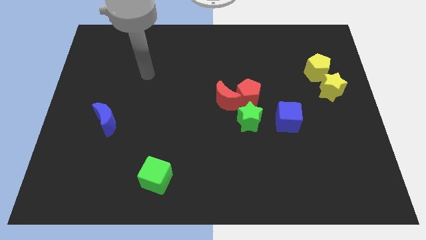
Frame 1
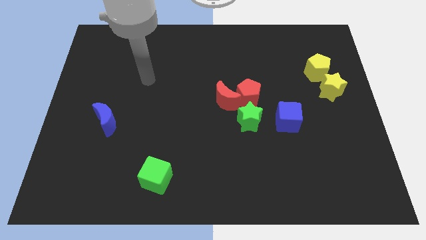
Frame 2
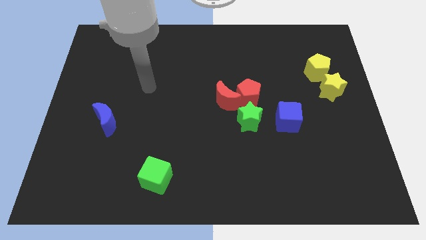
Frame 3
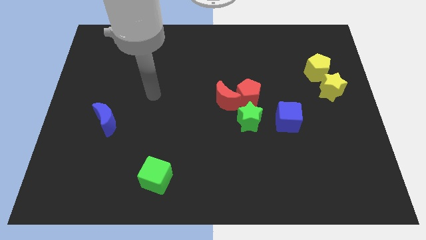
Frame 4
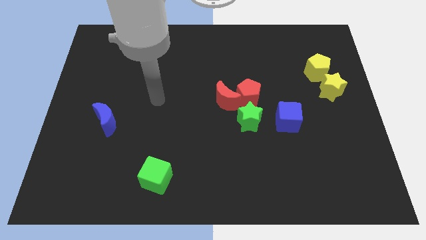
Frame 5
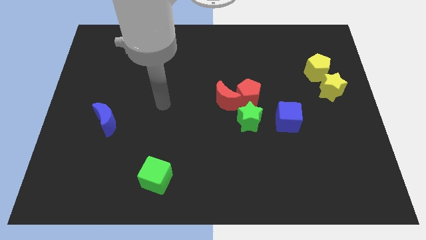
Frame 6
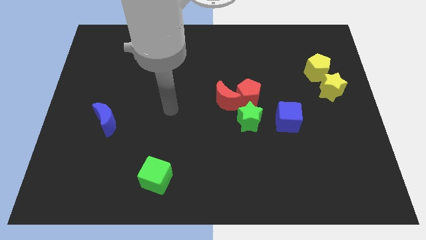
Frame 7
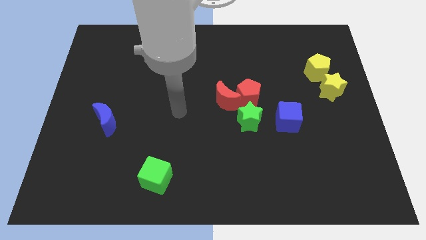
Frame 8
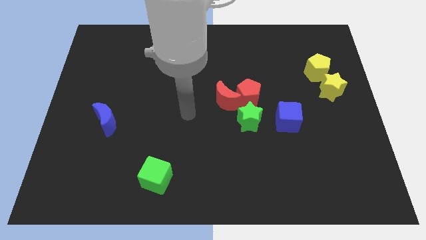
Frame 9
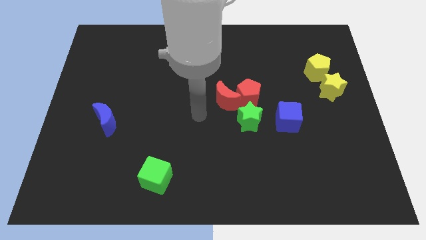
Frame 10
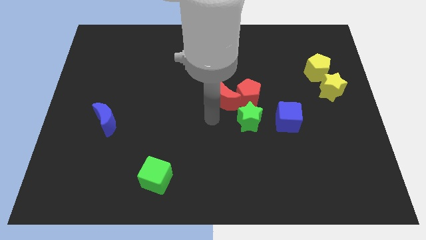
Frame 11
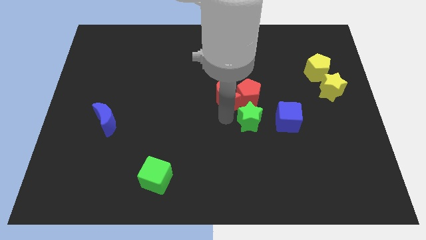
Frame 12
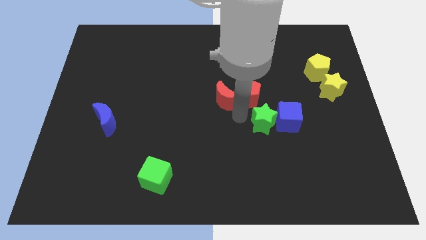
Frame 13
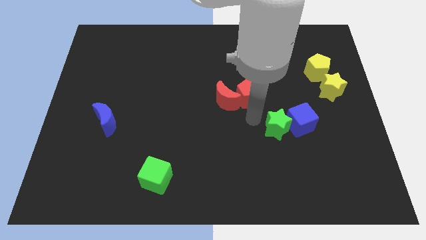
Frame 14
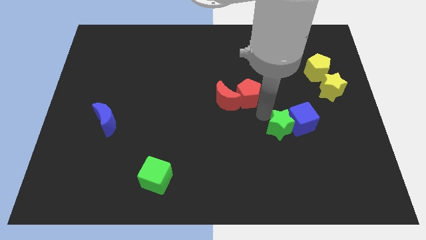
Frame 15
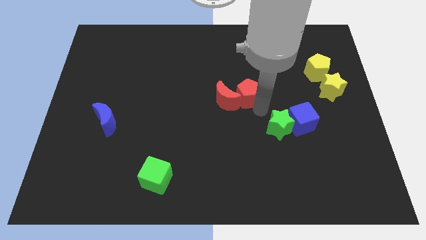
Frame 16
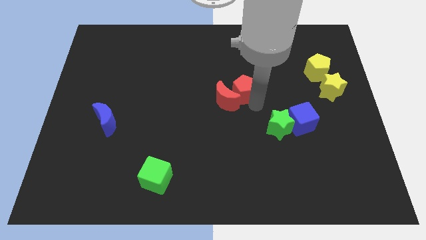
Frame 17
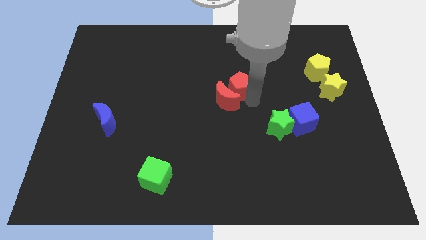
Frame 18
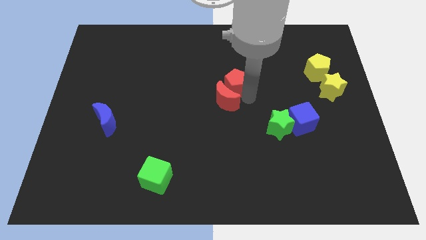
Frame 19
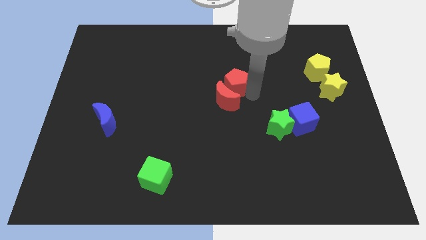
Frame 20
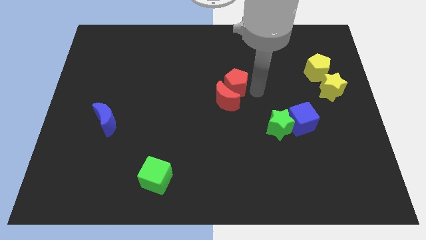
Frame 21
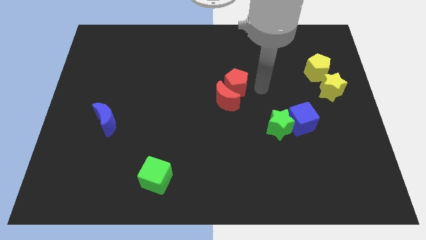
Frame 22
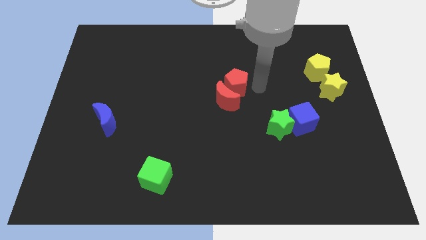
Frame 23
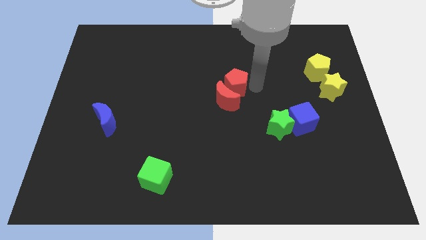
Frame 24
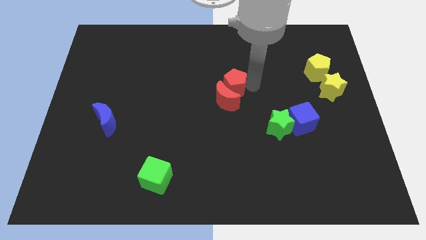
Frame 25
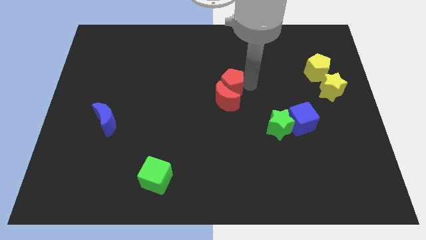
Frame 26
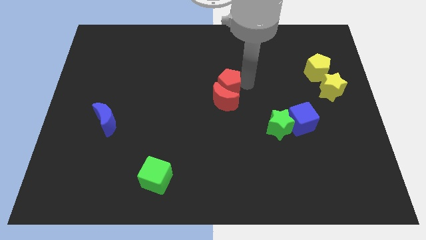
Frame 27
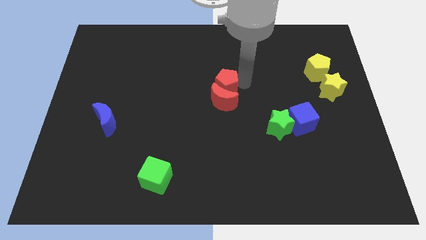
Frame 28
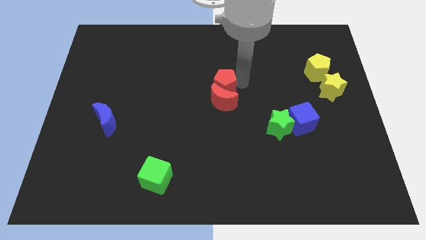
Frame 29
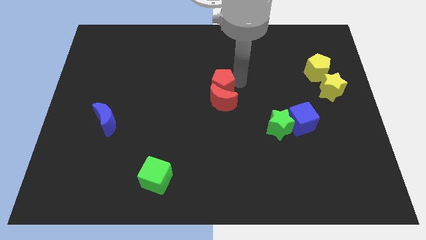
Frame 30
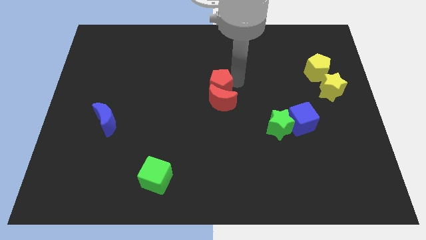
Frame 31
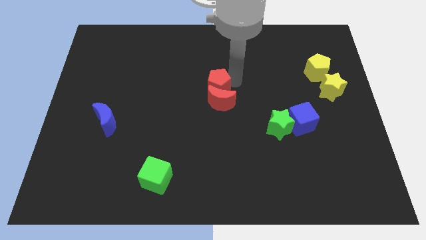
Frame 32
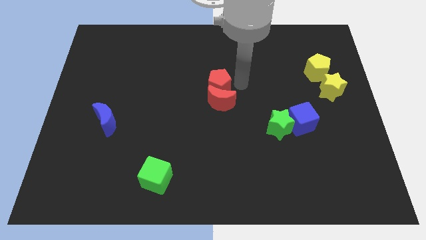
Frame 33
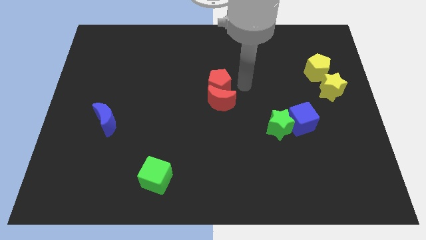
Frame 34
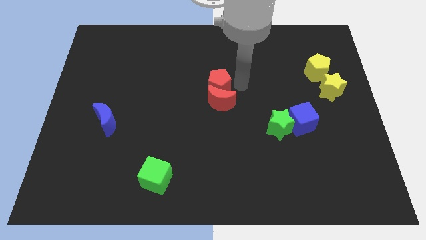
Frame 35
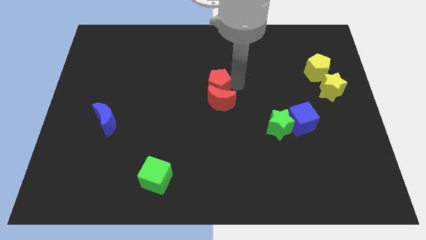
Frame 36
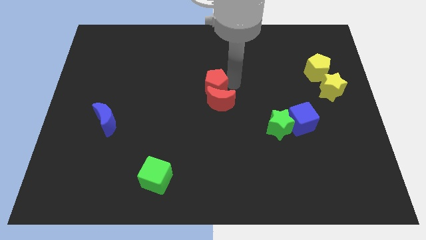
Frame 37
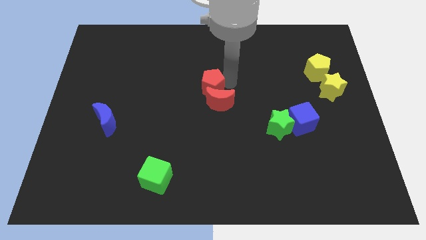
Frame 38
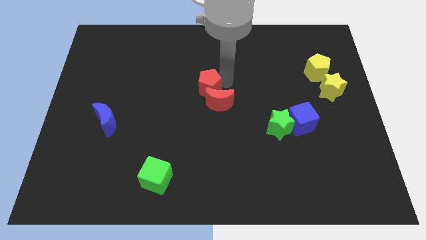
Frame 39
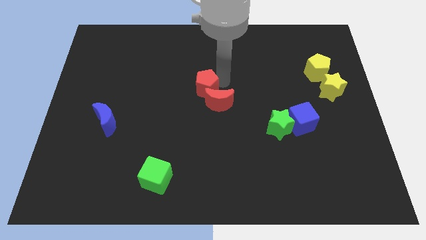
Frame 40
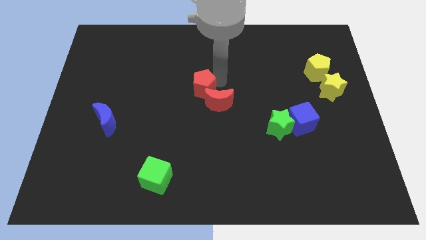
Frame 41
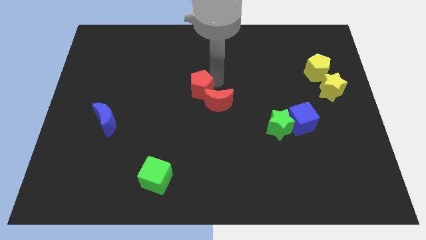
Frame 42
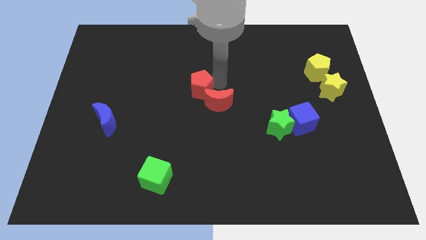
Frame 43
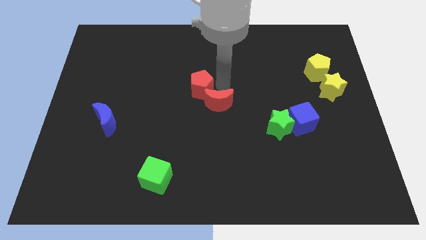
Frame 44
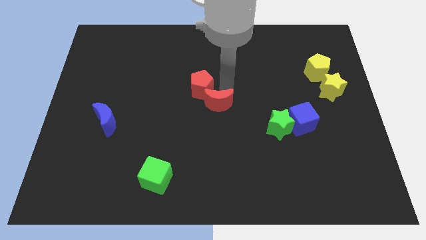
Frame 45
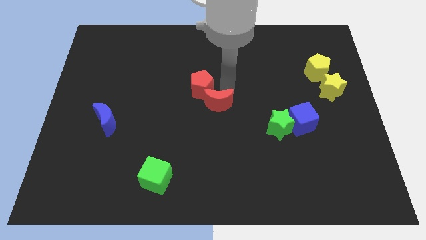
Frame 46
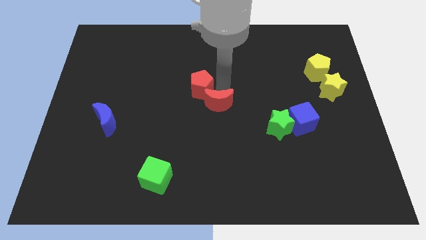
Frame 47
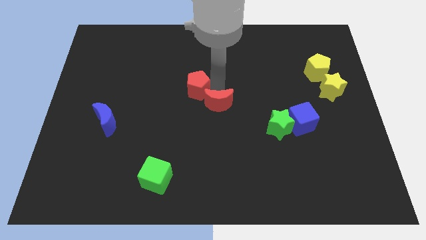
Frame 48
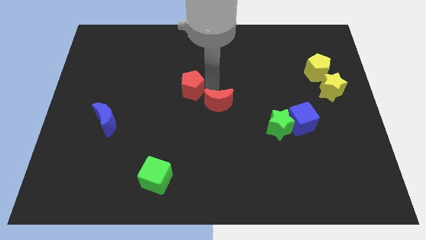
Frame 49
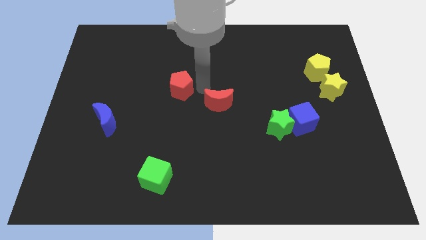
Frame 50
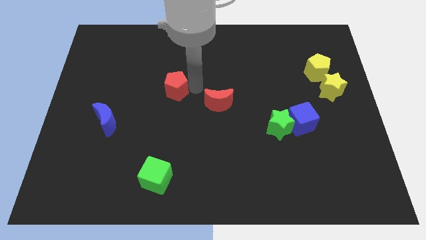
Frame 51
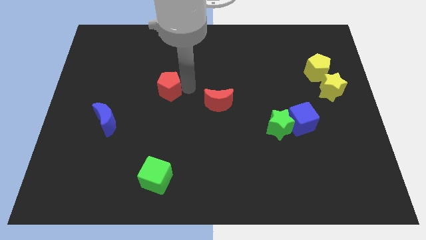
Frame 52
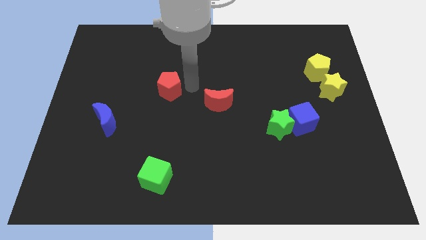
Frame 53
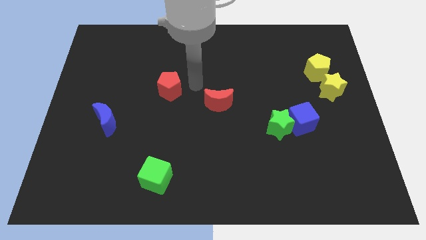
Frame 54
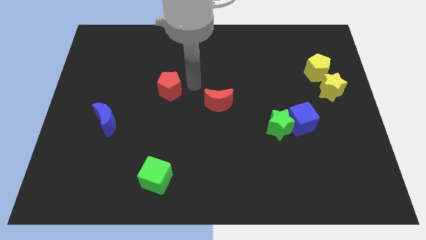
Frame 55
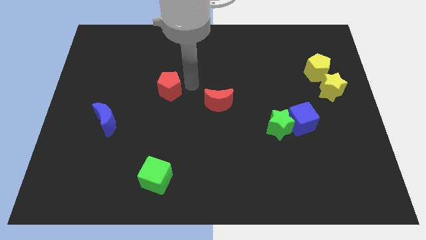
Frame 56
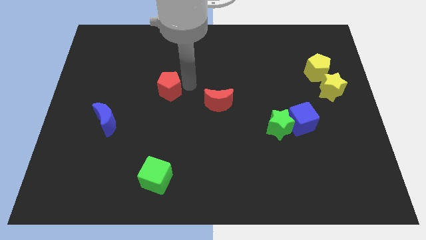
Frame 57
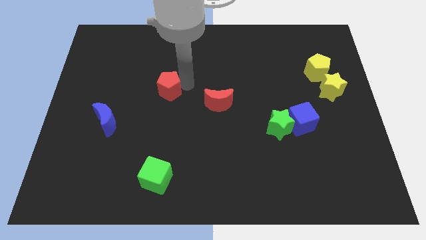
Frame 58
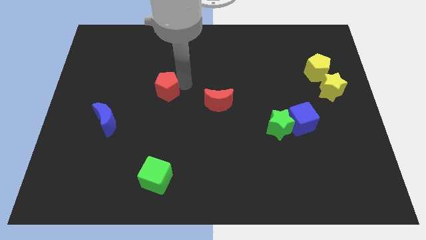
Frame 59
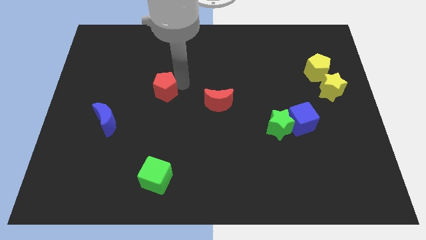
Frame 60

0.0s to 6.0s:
push the red pentagon to the left

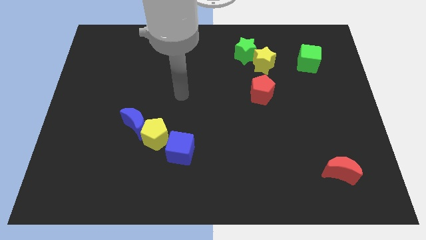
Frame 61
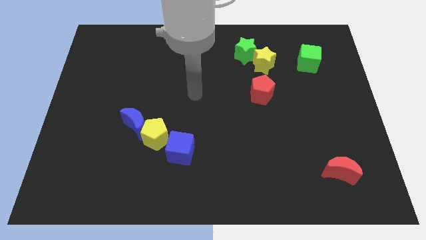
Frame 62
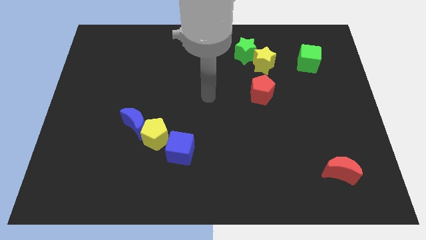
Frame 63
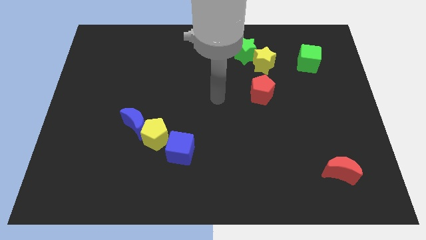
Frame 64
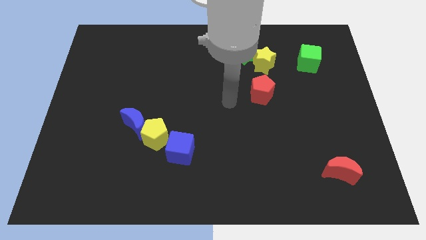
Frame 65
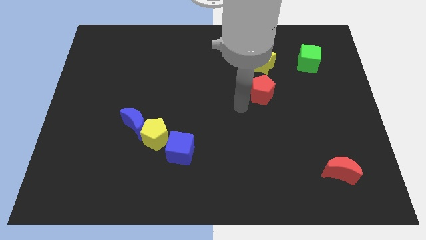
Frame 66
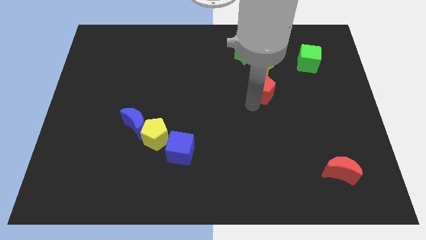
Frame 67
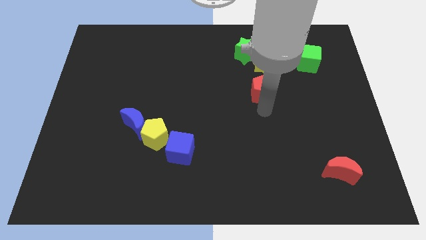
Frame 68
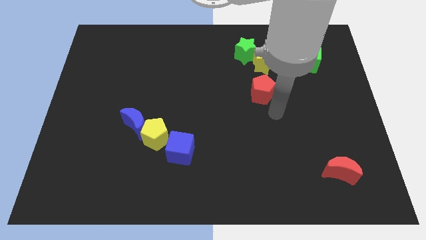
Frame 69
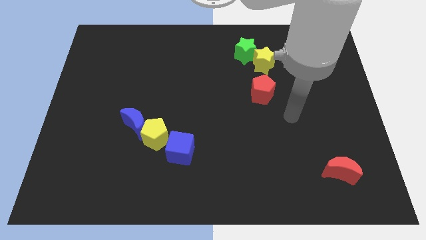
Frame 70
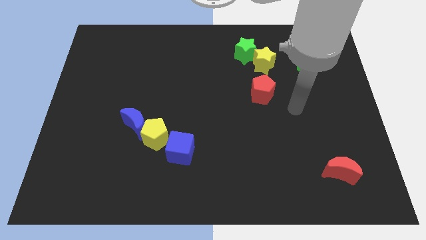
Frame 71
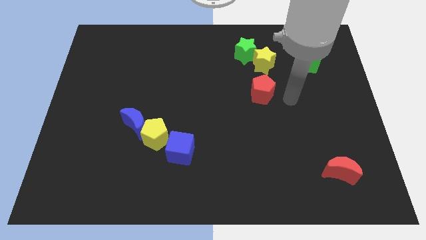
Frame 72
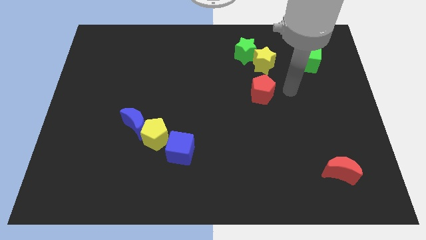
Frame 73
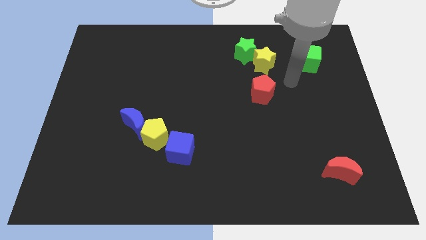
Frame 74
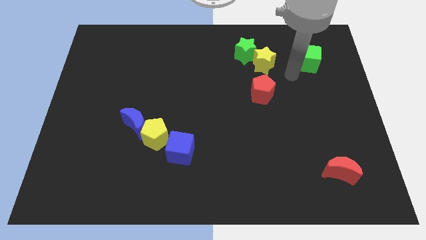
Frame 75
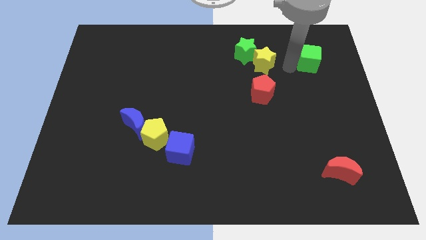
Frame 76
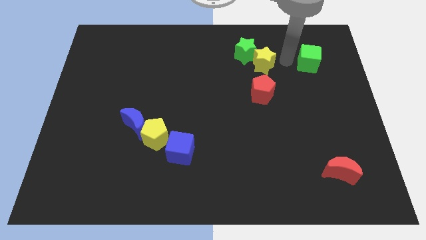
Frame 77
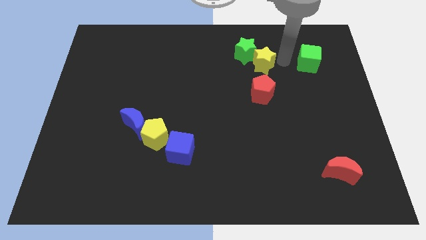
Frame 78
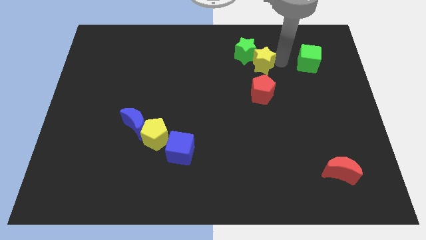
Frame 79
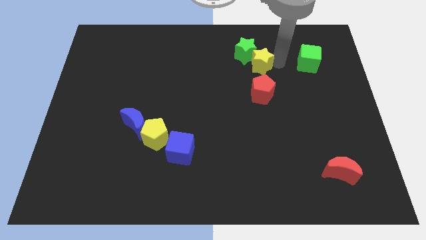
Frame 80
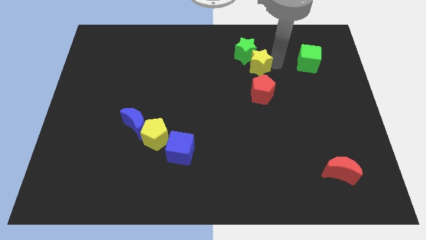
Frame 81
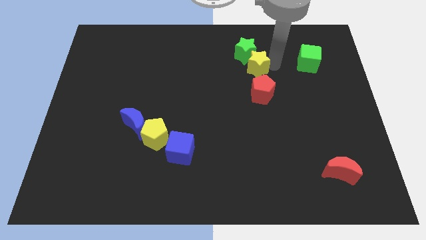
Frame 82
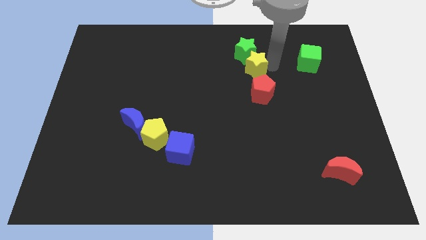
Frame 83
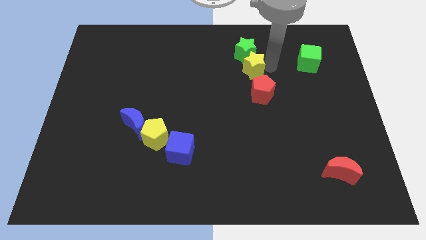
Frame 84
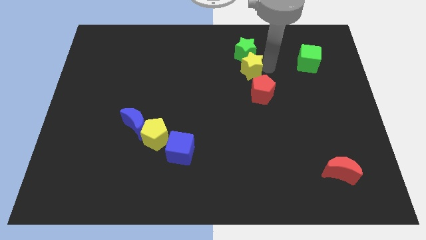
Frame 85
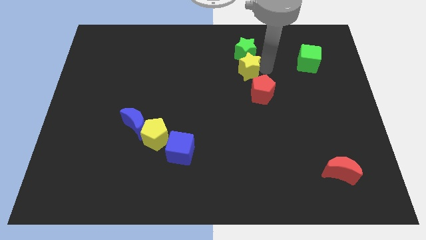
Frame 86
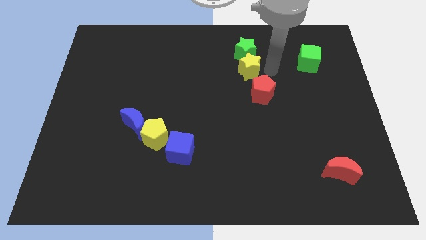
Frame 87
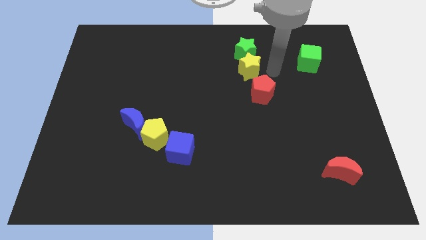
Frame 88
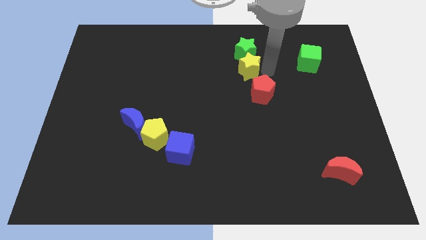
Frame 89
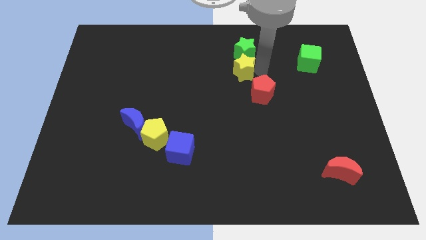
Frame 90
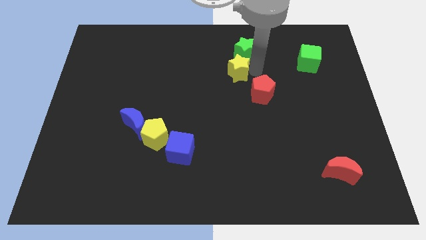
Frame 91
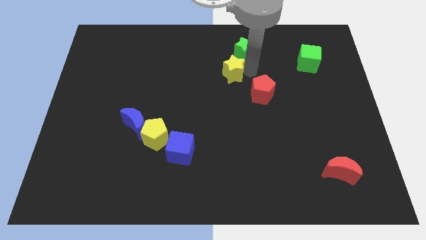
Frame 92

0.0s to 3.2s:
slightly slide the yellow star to the left
